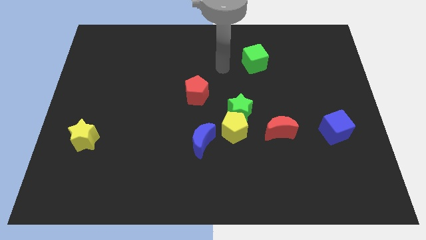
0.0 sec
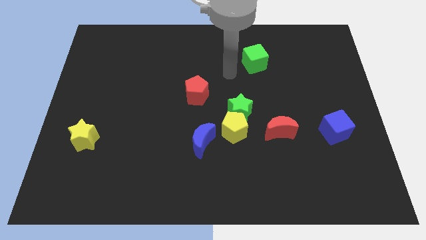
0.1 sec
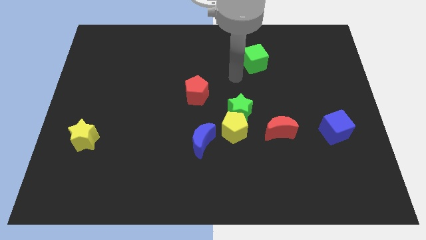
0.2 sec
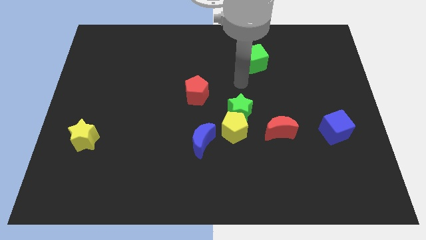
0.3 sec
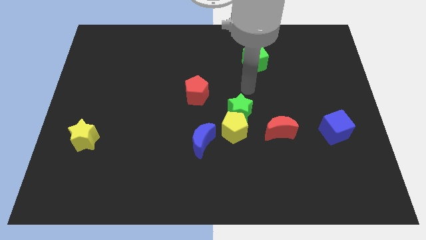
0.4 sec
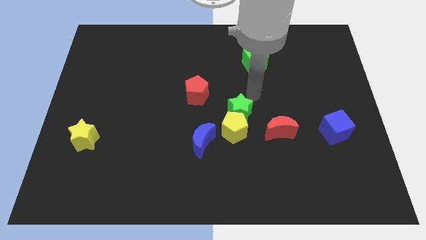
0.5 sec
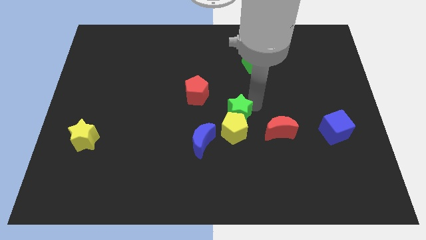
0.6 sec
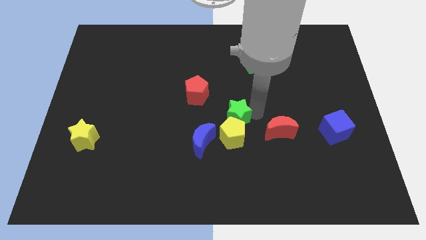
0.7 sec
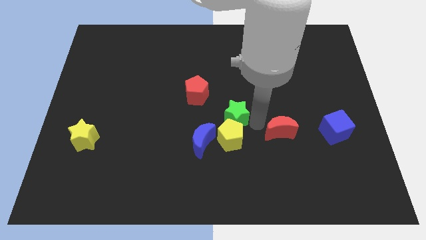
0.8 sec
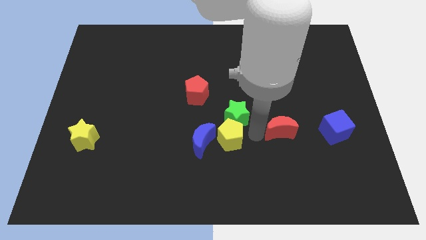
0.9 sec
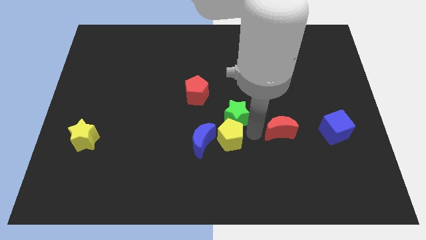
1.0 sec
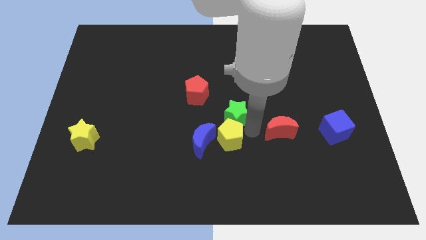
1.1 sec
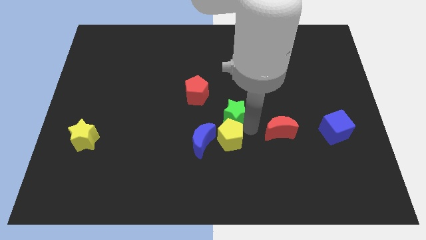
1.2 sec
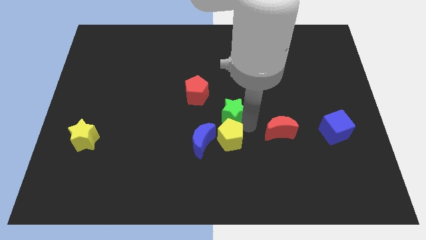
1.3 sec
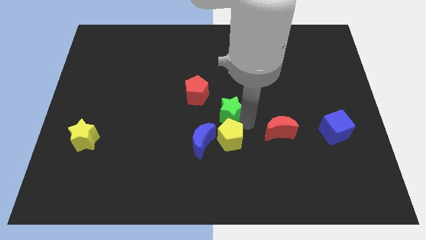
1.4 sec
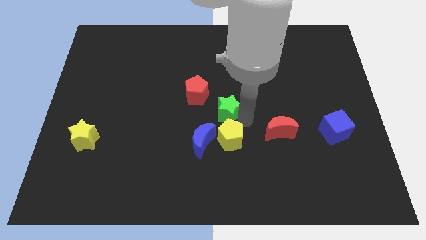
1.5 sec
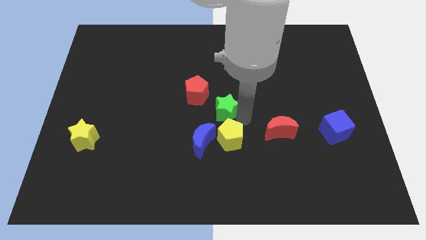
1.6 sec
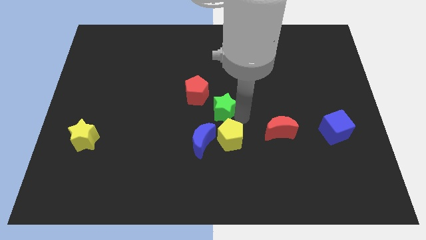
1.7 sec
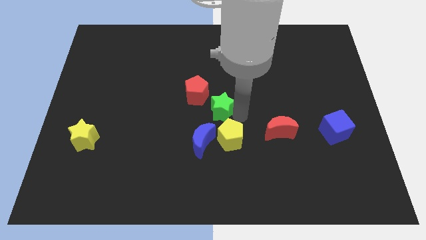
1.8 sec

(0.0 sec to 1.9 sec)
pull the green star apart from the yellow pentagon and red moon

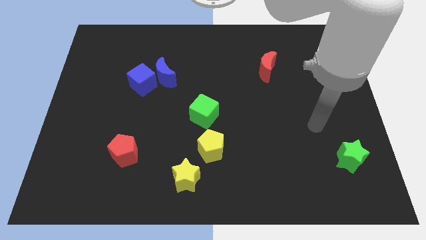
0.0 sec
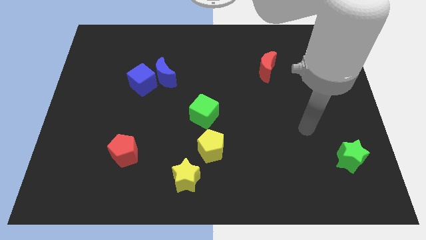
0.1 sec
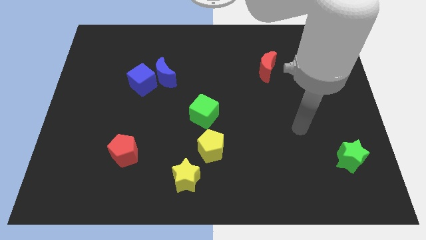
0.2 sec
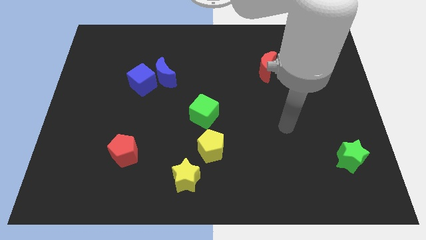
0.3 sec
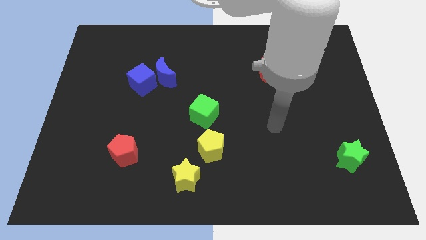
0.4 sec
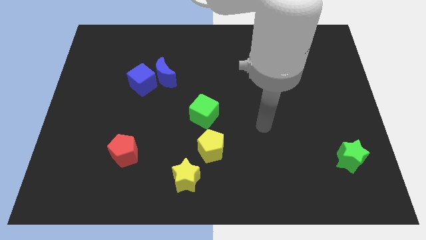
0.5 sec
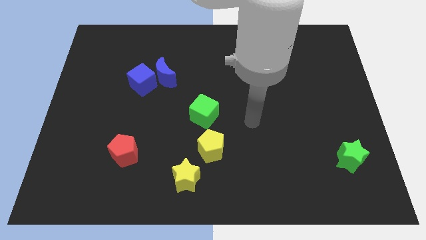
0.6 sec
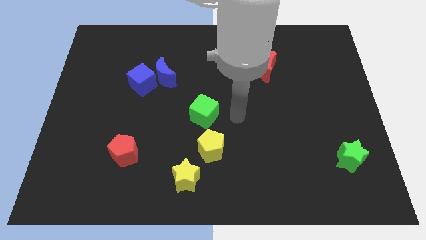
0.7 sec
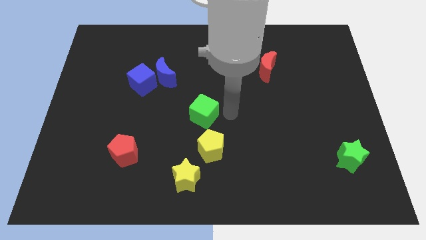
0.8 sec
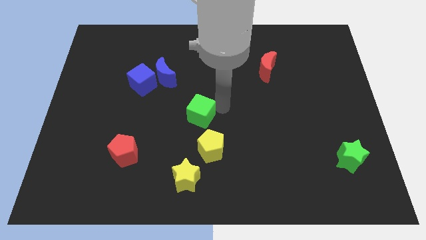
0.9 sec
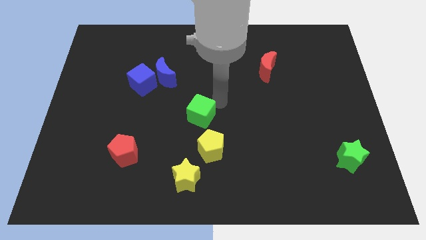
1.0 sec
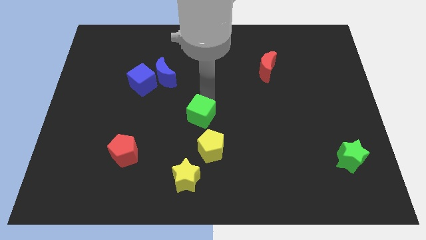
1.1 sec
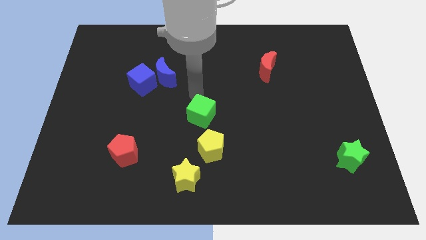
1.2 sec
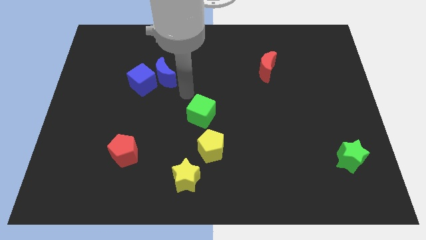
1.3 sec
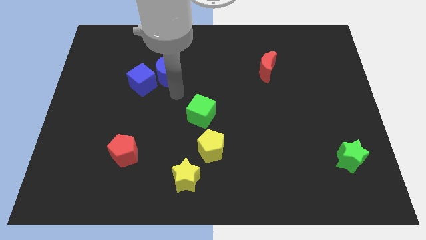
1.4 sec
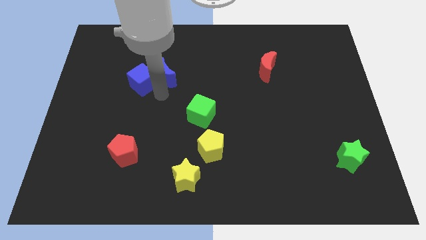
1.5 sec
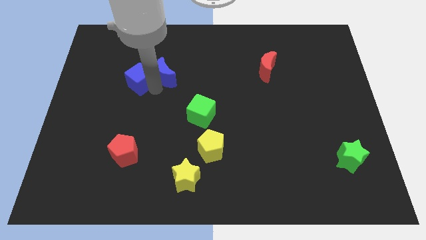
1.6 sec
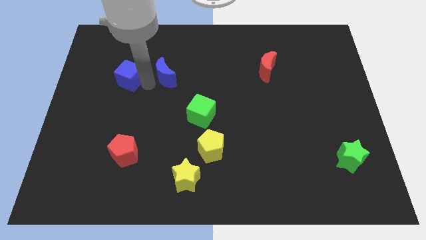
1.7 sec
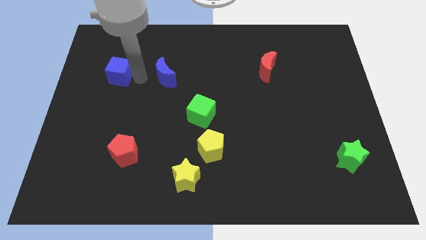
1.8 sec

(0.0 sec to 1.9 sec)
pull the blue moon apart from the blue cube

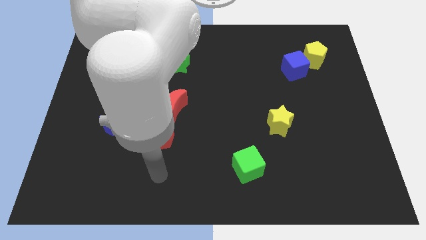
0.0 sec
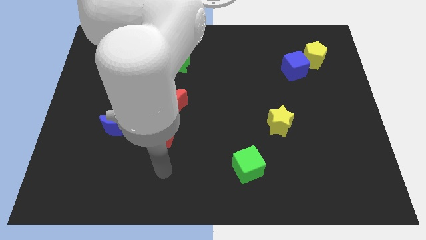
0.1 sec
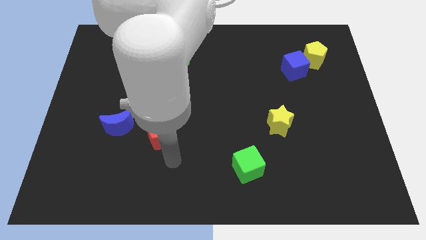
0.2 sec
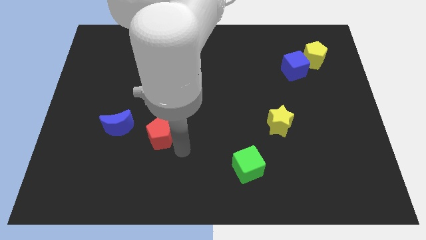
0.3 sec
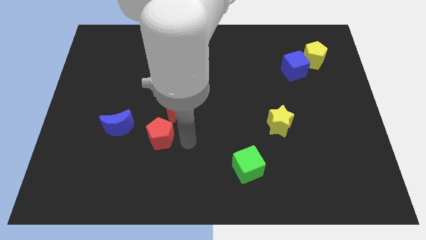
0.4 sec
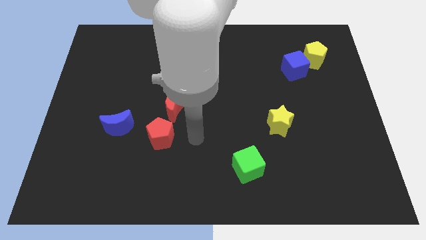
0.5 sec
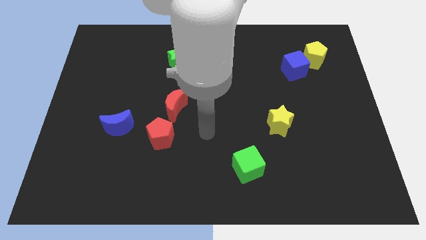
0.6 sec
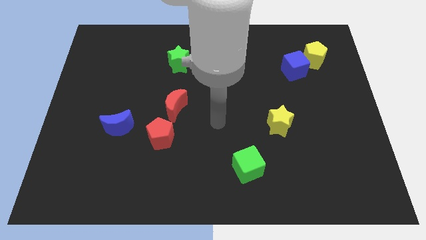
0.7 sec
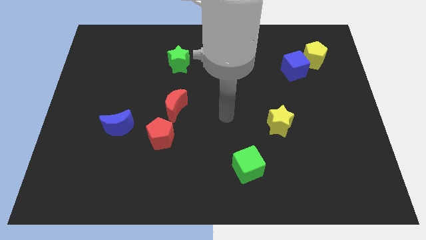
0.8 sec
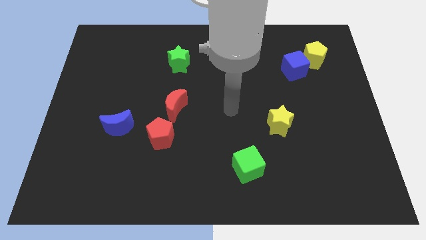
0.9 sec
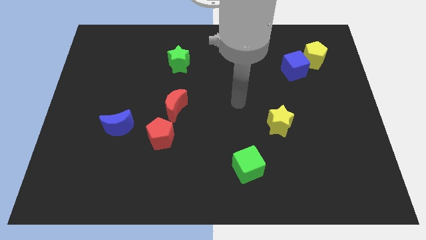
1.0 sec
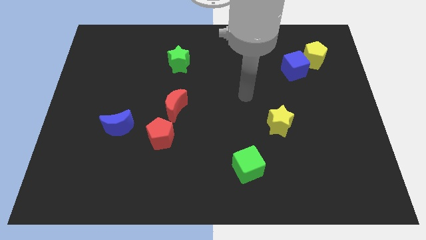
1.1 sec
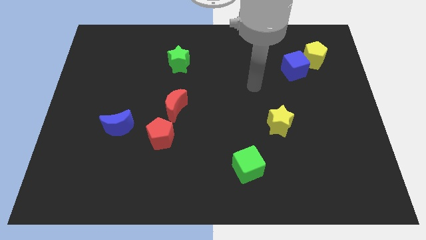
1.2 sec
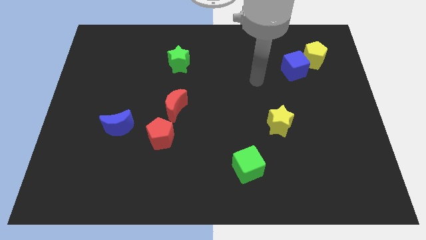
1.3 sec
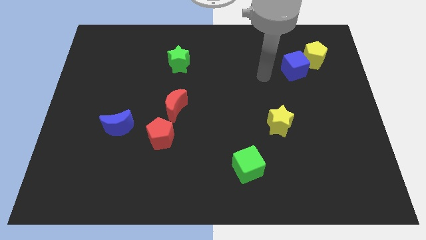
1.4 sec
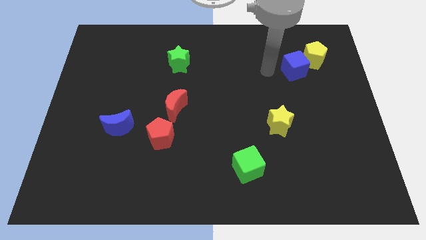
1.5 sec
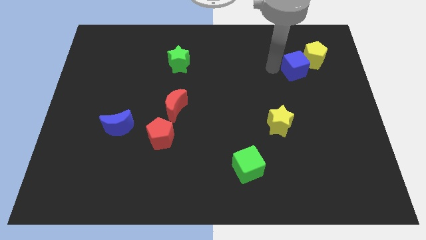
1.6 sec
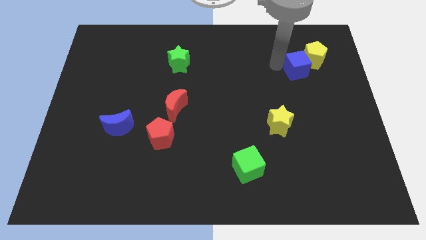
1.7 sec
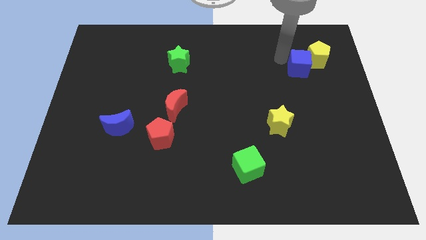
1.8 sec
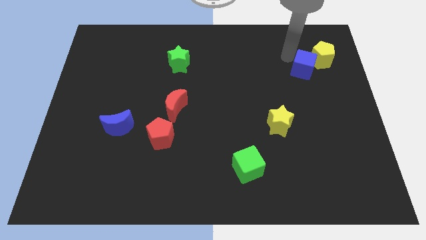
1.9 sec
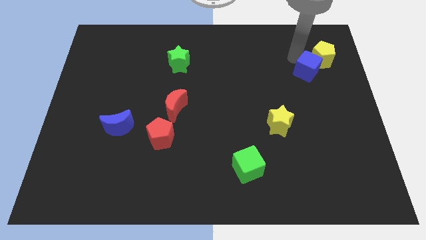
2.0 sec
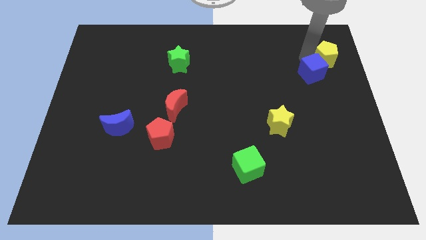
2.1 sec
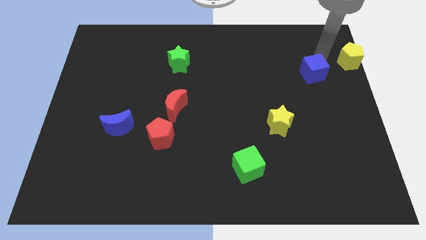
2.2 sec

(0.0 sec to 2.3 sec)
separate the blue cube from the yellow pentagon

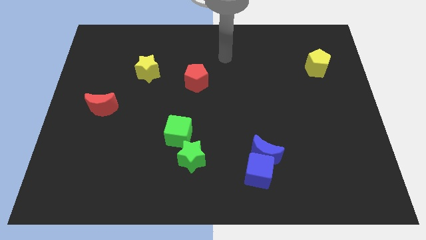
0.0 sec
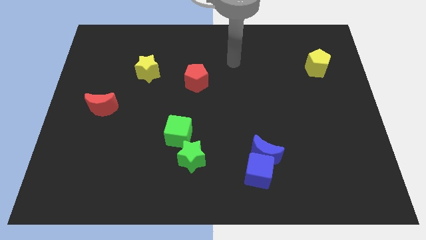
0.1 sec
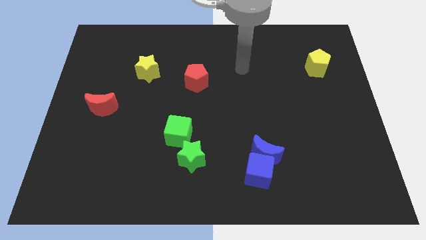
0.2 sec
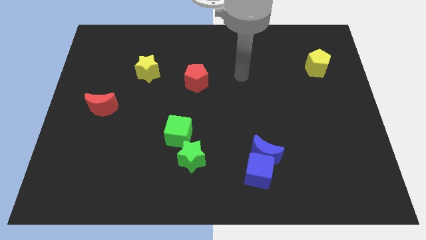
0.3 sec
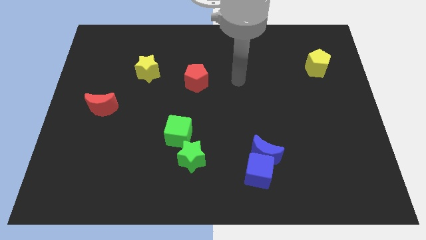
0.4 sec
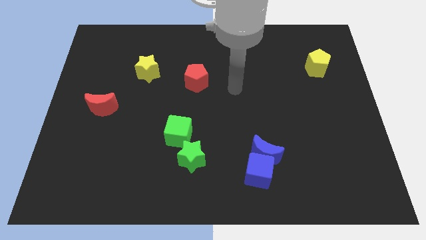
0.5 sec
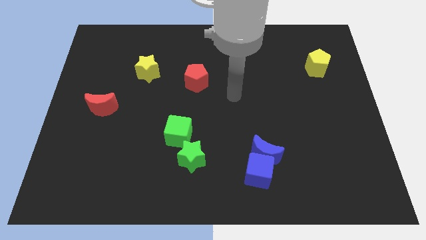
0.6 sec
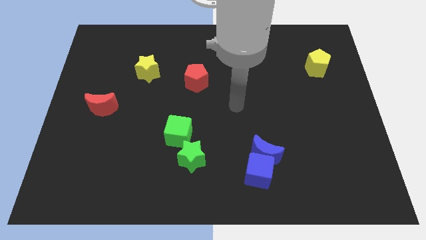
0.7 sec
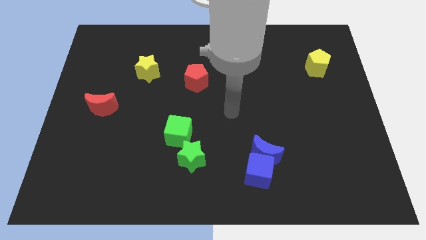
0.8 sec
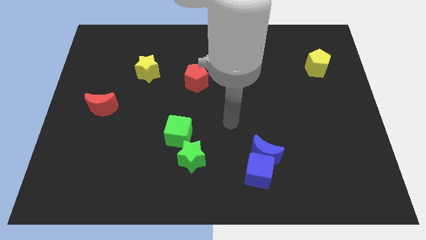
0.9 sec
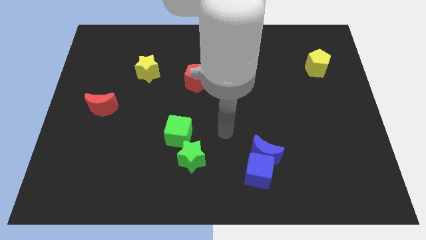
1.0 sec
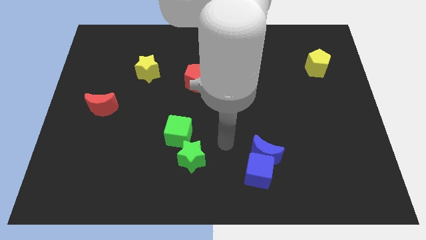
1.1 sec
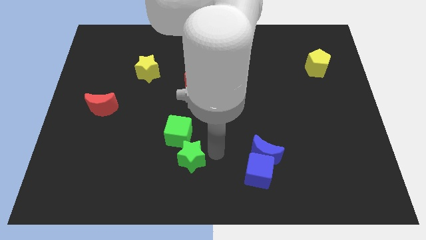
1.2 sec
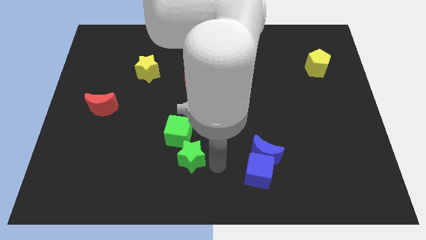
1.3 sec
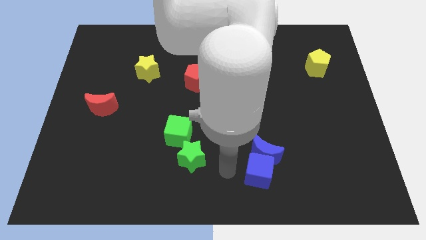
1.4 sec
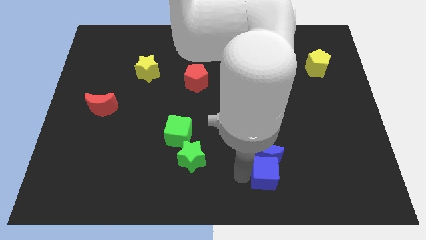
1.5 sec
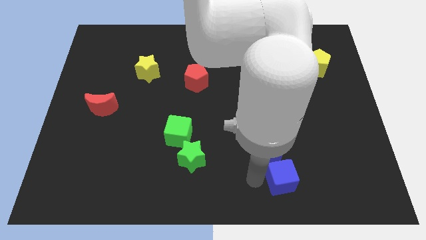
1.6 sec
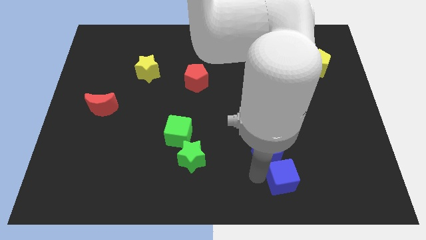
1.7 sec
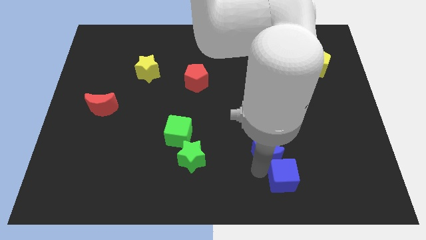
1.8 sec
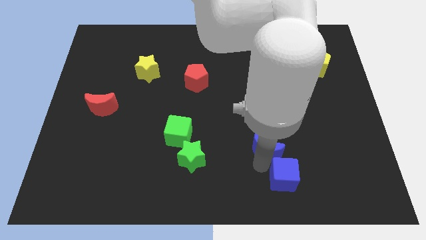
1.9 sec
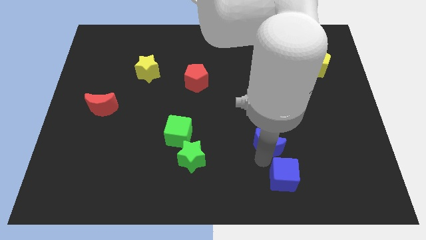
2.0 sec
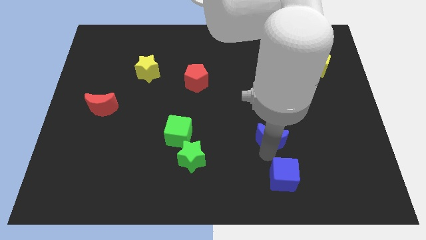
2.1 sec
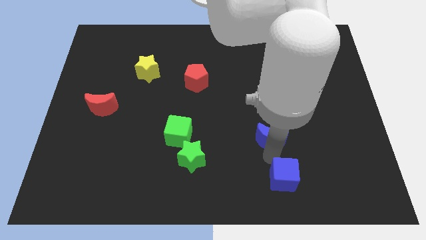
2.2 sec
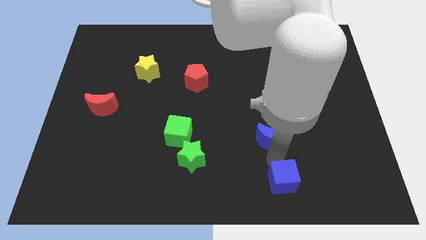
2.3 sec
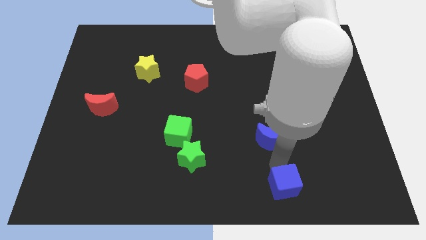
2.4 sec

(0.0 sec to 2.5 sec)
move the blue moon away from the blue cube

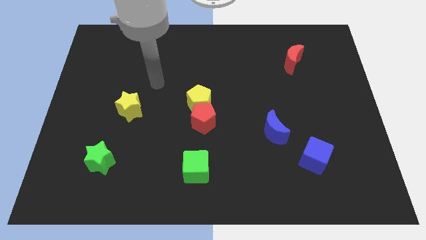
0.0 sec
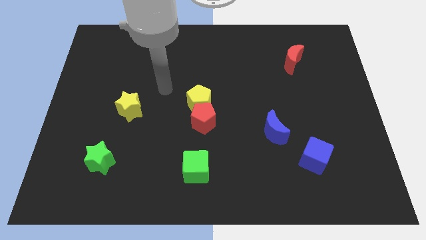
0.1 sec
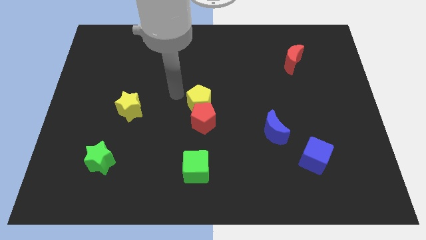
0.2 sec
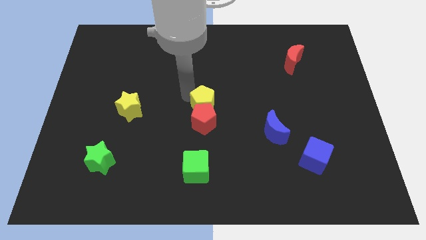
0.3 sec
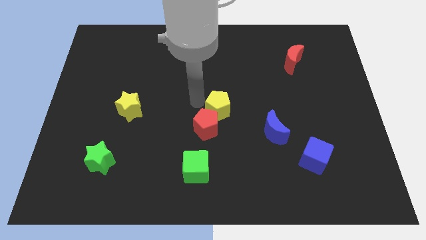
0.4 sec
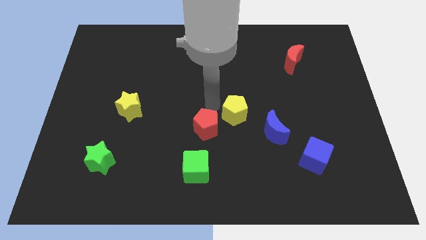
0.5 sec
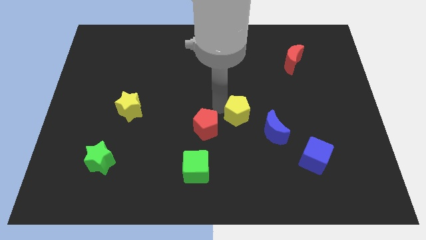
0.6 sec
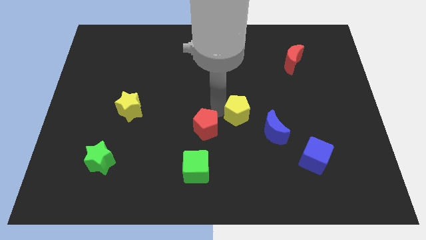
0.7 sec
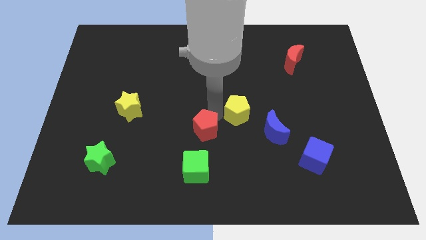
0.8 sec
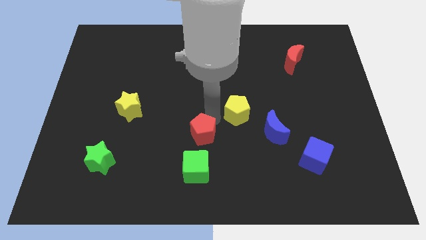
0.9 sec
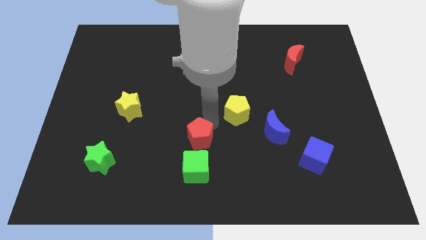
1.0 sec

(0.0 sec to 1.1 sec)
move the red pentagon away from the yellow pentagon
